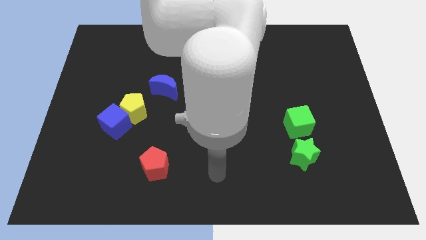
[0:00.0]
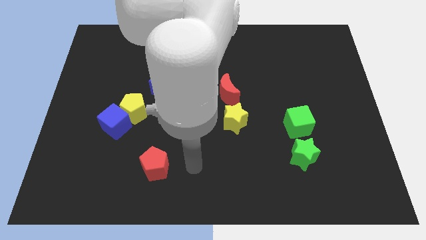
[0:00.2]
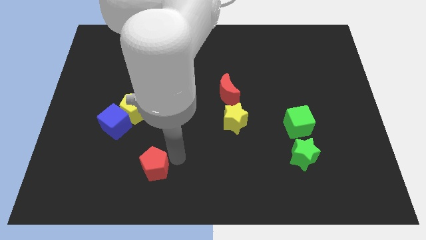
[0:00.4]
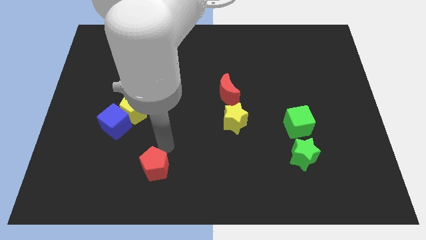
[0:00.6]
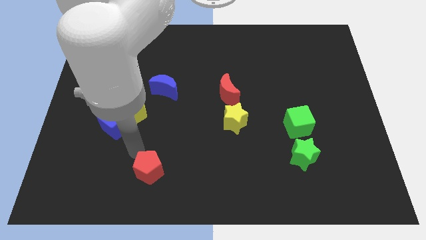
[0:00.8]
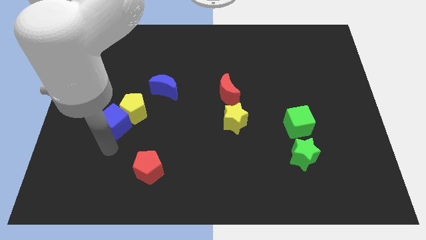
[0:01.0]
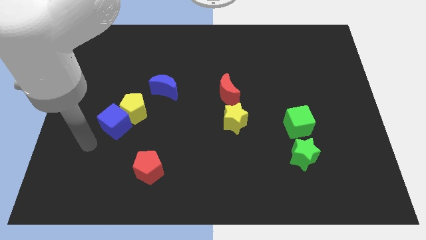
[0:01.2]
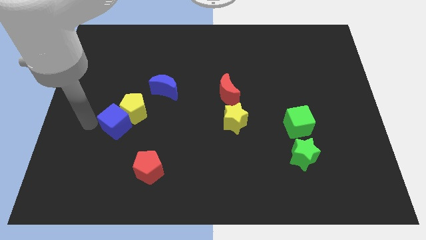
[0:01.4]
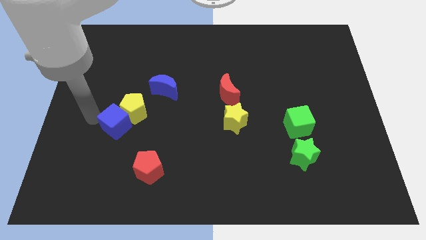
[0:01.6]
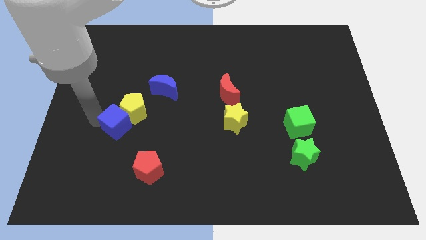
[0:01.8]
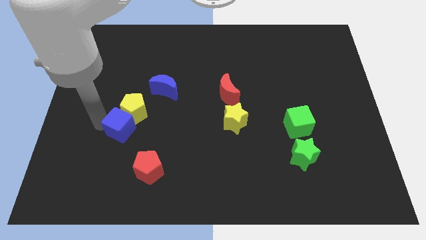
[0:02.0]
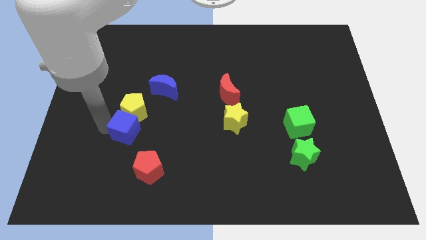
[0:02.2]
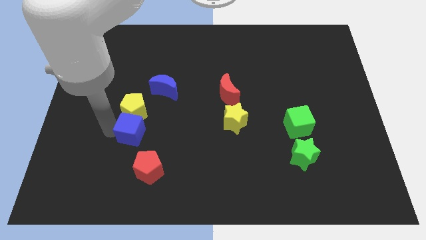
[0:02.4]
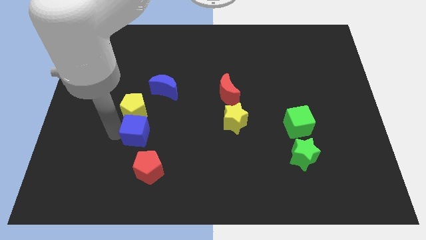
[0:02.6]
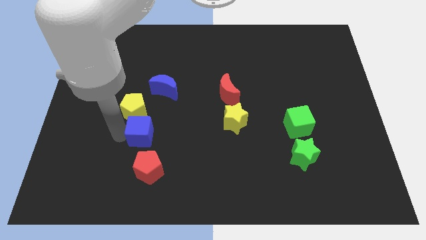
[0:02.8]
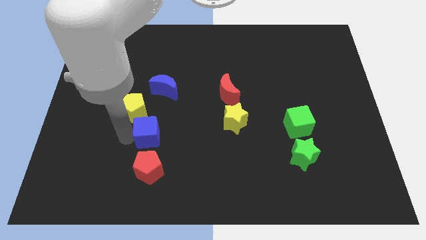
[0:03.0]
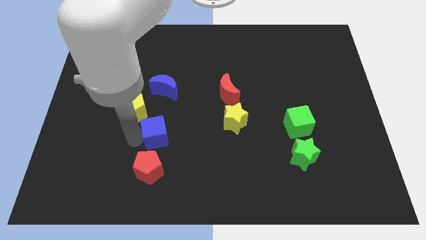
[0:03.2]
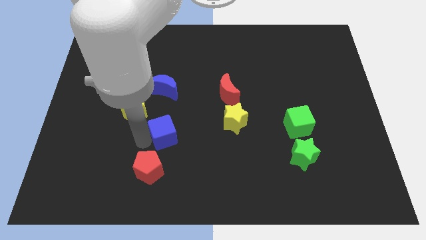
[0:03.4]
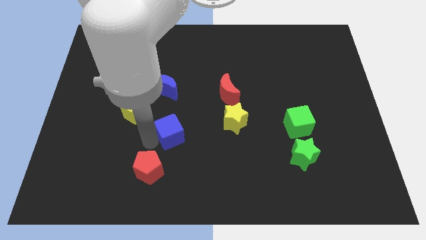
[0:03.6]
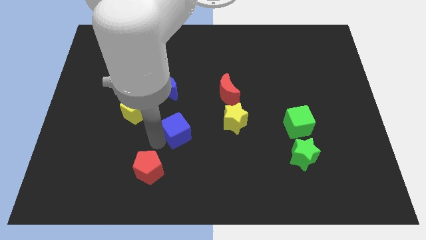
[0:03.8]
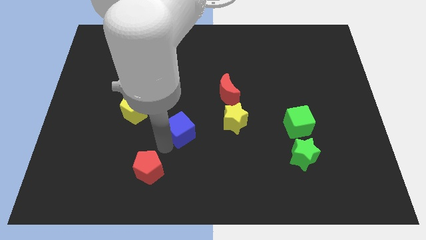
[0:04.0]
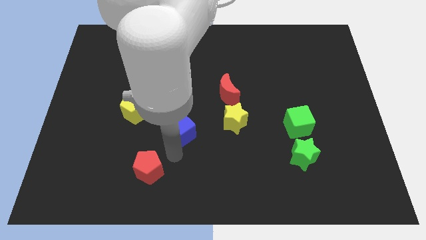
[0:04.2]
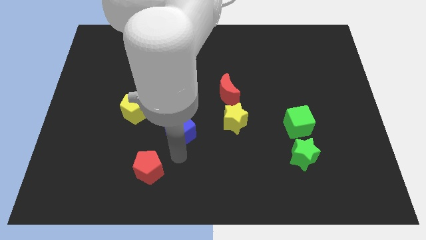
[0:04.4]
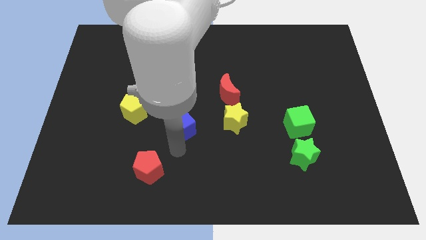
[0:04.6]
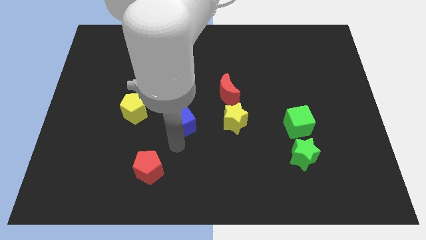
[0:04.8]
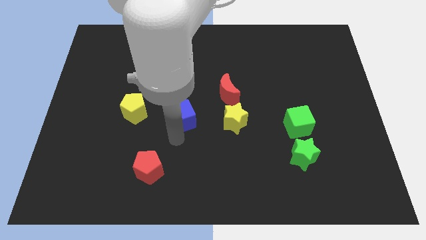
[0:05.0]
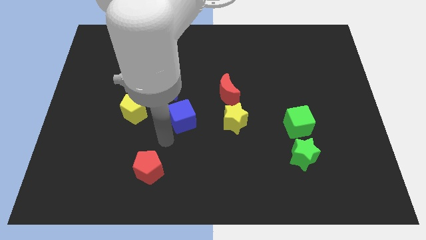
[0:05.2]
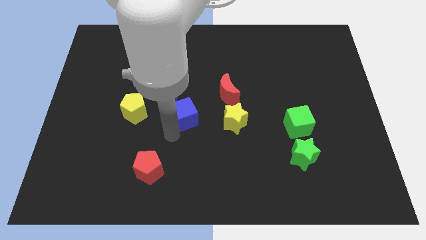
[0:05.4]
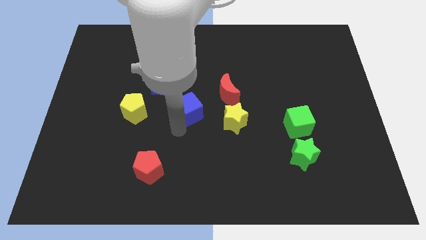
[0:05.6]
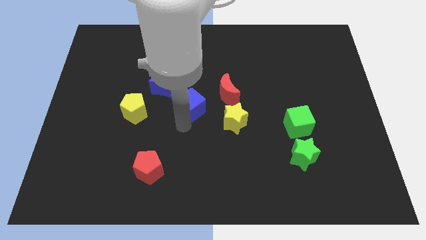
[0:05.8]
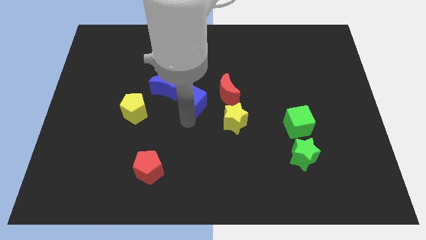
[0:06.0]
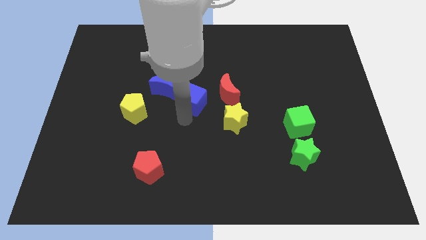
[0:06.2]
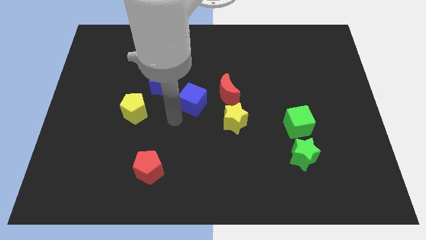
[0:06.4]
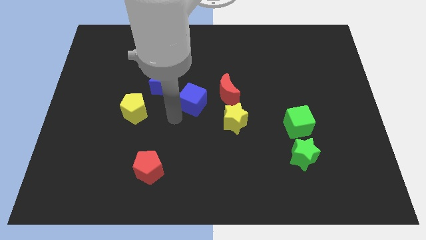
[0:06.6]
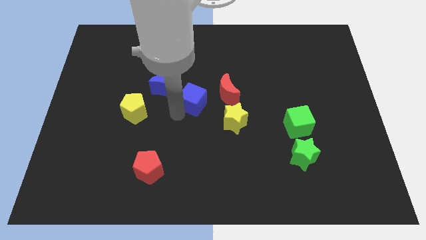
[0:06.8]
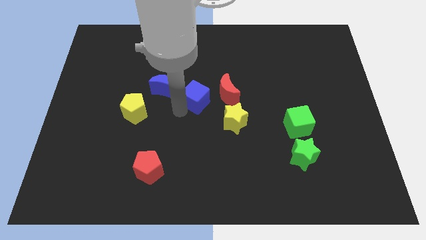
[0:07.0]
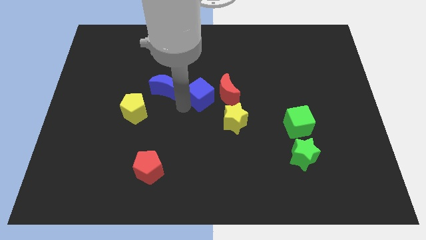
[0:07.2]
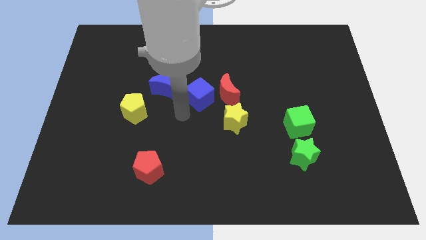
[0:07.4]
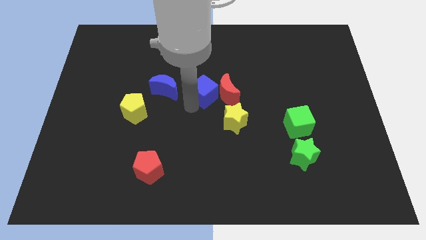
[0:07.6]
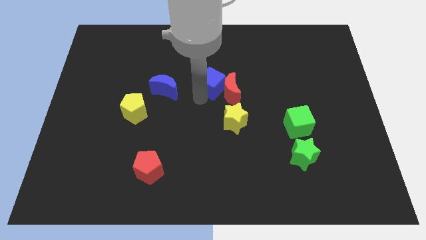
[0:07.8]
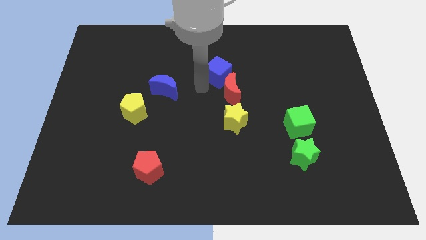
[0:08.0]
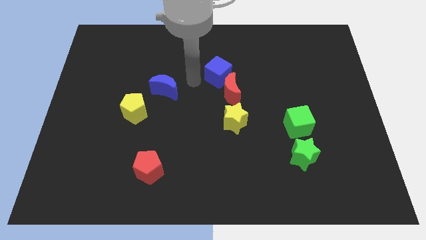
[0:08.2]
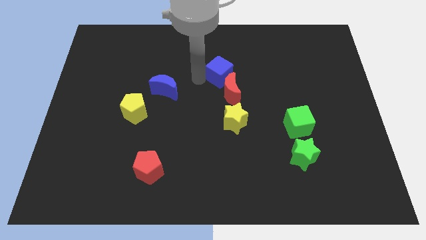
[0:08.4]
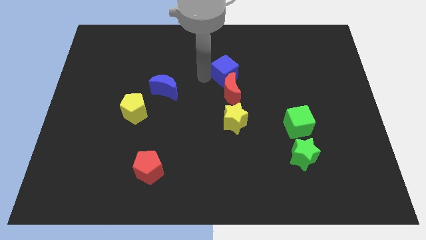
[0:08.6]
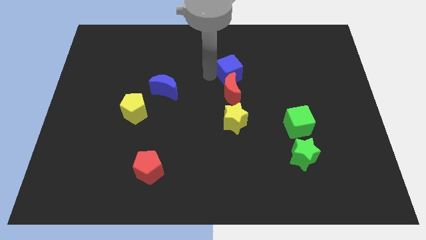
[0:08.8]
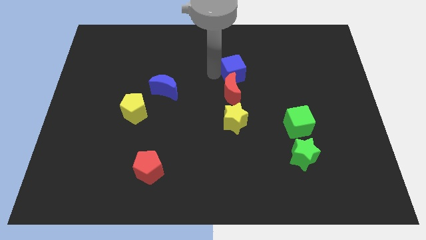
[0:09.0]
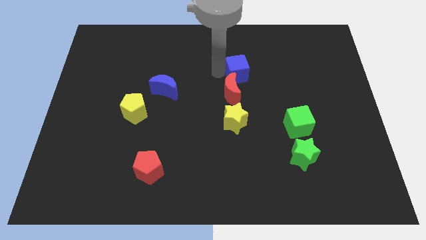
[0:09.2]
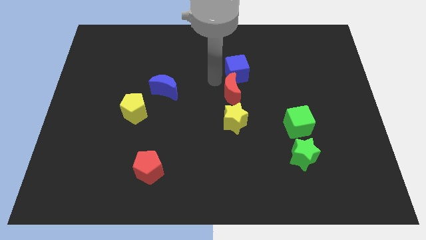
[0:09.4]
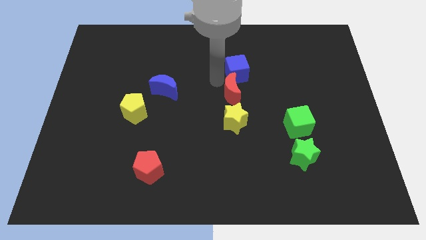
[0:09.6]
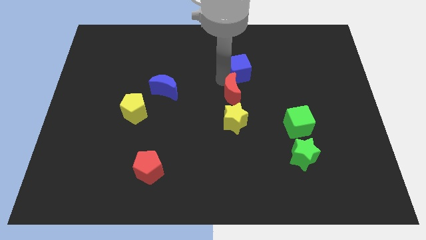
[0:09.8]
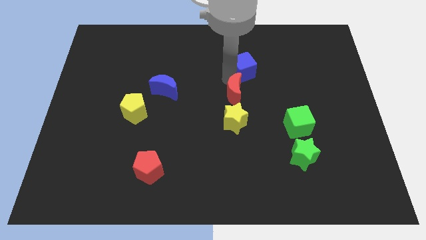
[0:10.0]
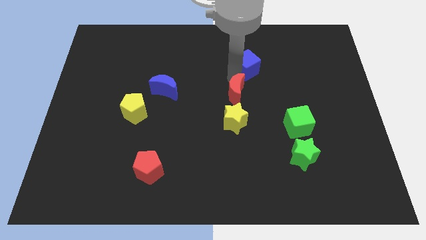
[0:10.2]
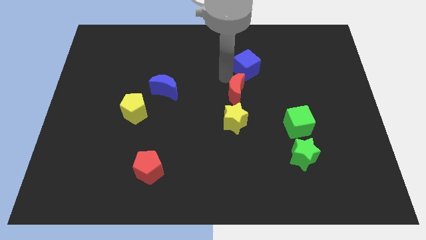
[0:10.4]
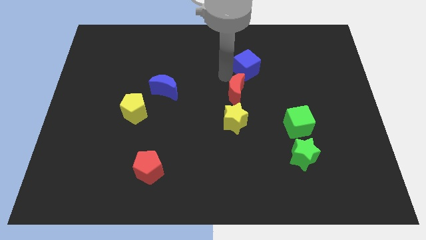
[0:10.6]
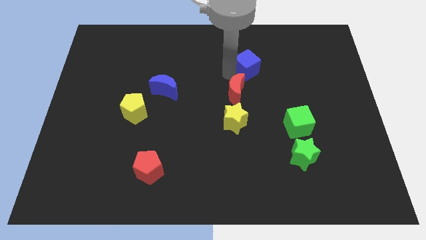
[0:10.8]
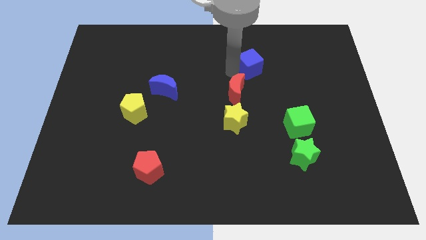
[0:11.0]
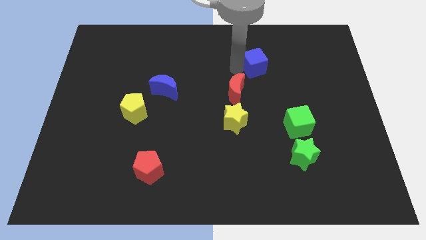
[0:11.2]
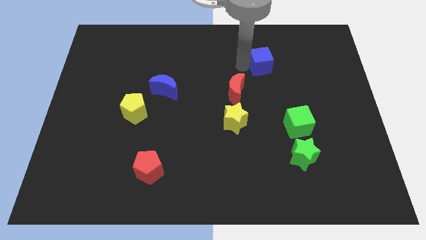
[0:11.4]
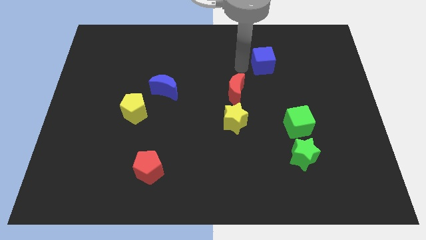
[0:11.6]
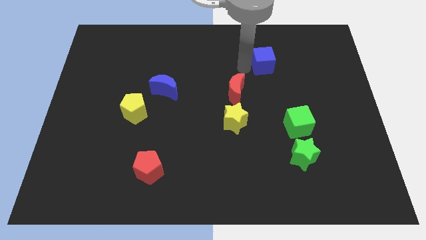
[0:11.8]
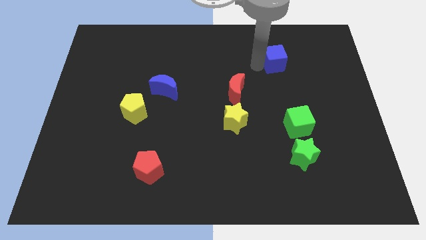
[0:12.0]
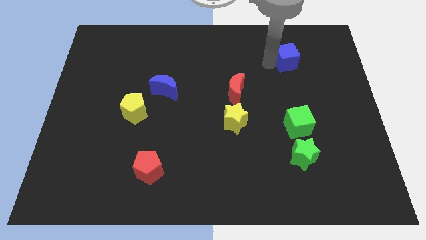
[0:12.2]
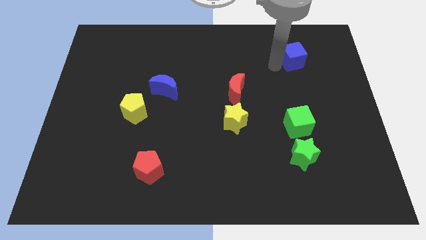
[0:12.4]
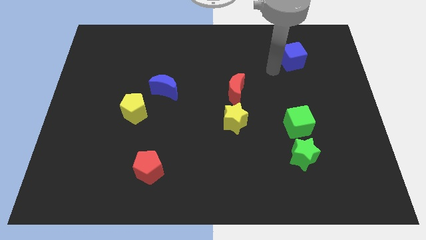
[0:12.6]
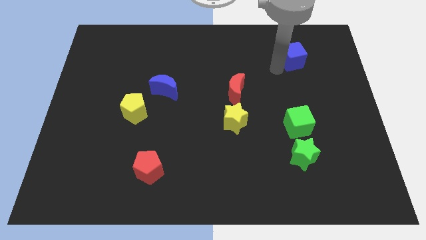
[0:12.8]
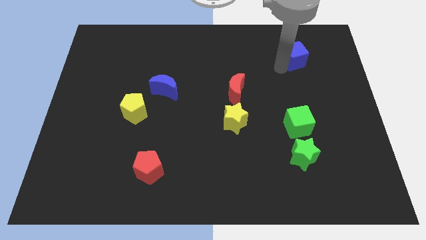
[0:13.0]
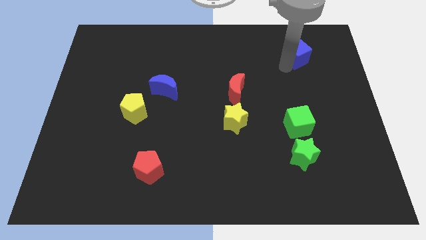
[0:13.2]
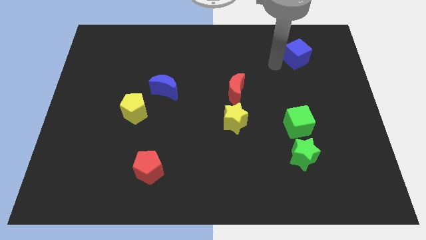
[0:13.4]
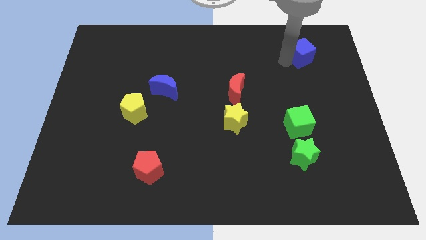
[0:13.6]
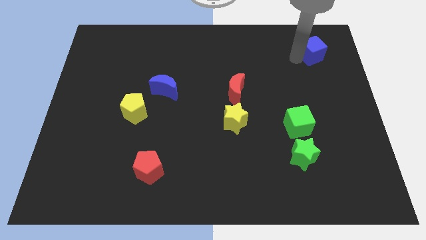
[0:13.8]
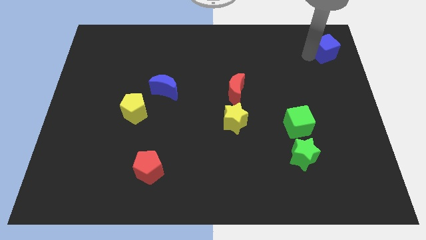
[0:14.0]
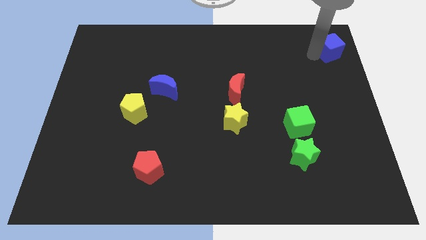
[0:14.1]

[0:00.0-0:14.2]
push the blue cube to the upper right corner

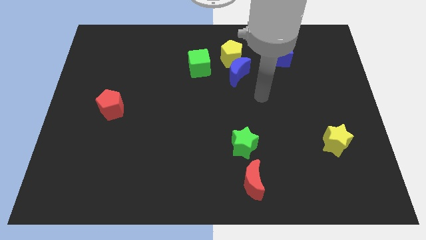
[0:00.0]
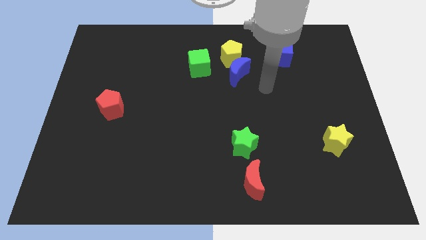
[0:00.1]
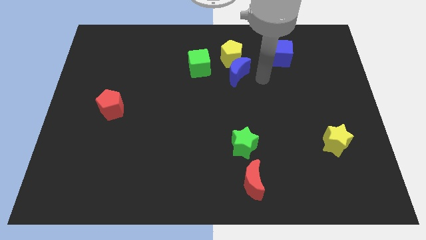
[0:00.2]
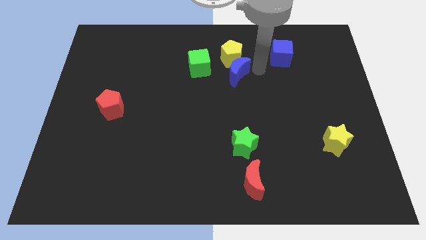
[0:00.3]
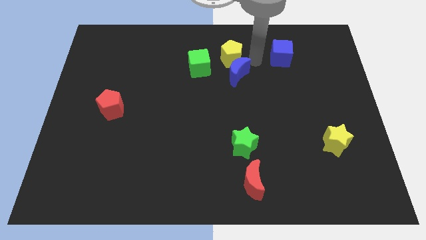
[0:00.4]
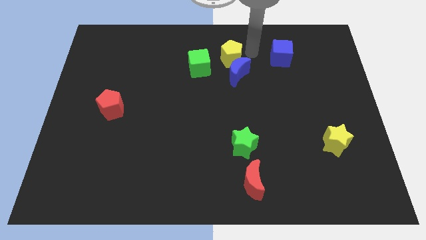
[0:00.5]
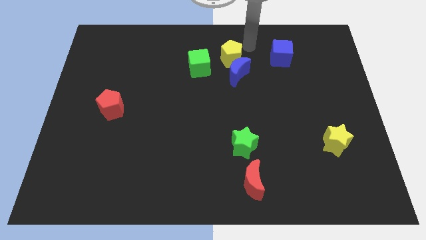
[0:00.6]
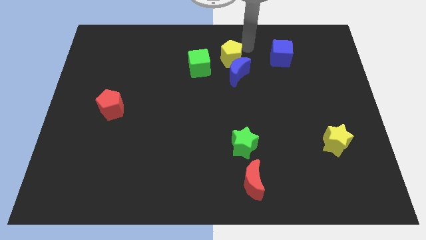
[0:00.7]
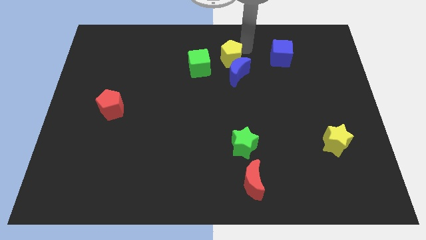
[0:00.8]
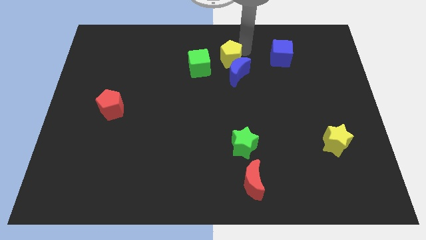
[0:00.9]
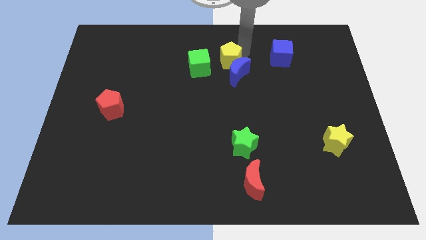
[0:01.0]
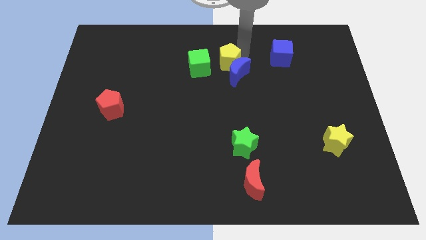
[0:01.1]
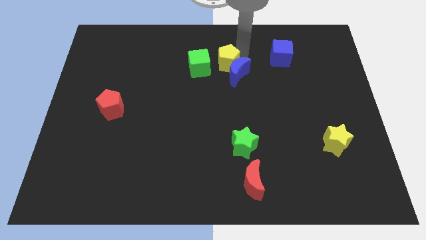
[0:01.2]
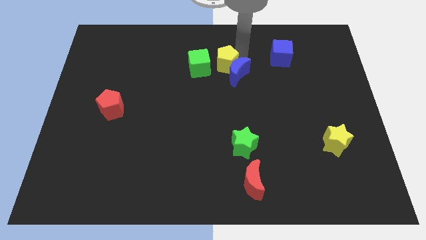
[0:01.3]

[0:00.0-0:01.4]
slide the yellow pentagon to the middle of the board
